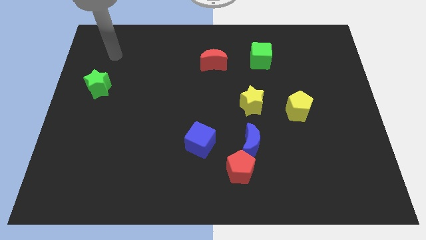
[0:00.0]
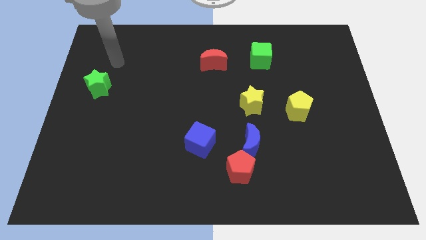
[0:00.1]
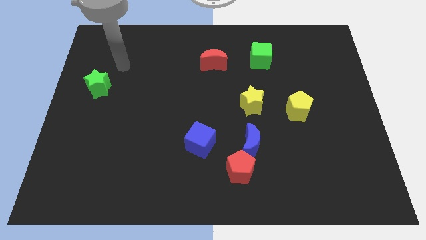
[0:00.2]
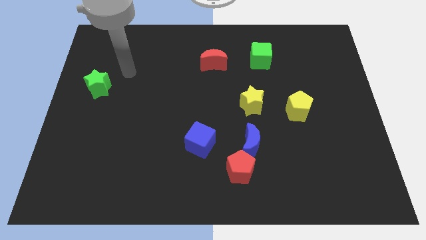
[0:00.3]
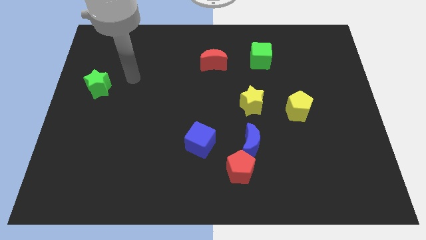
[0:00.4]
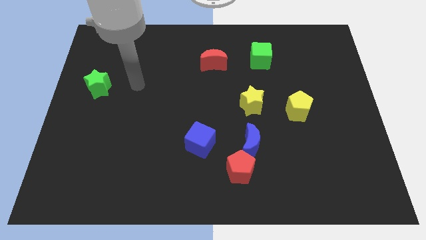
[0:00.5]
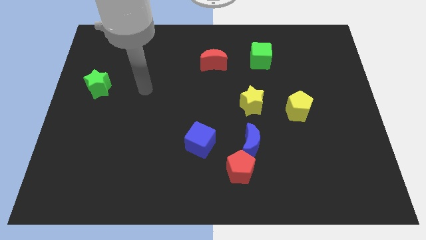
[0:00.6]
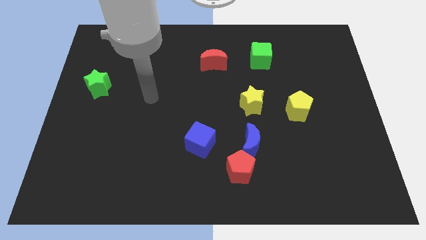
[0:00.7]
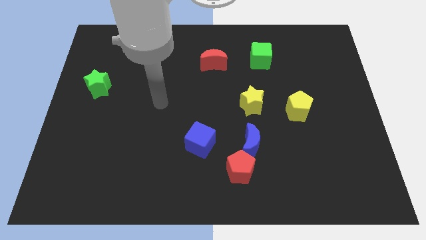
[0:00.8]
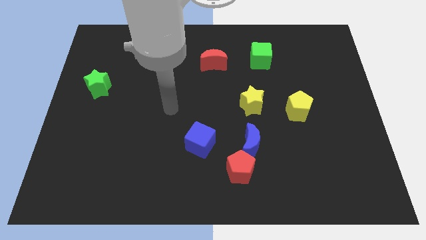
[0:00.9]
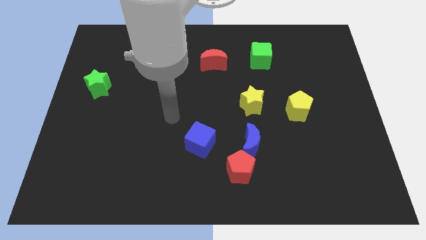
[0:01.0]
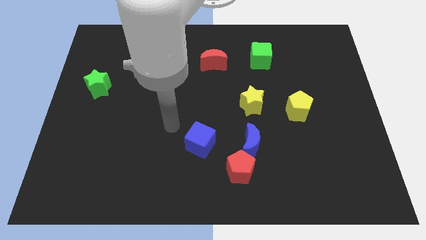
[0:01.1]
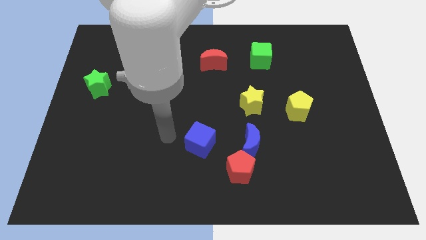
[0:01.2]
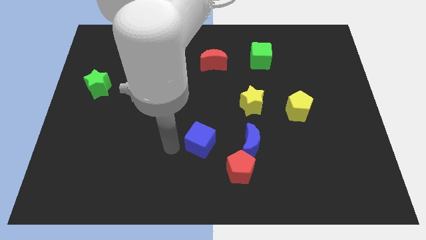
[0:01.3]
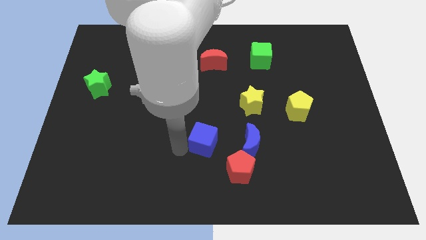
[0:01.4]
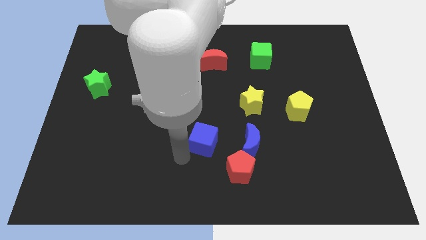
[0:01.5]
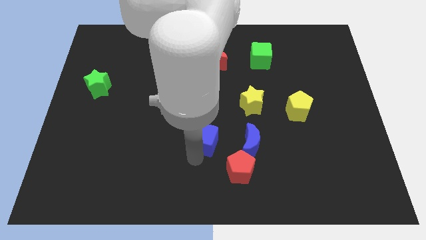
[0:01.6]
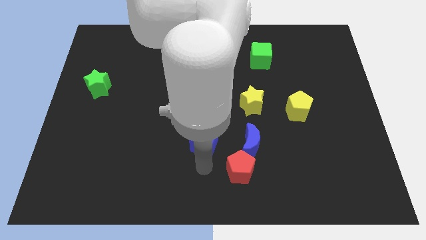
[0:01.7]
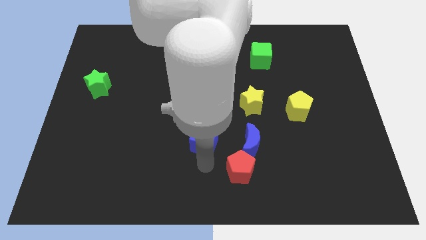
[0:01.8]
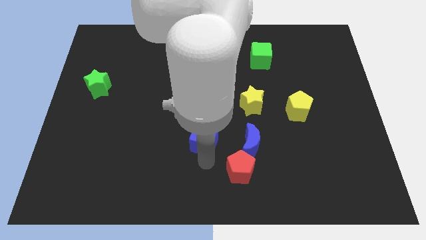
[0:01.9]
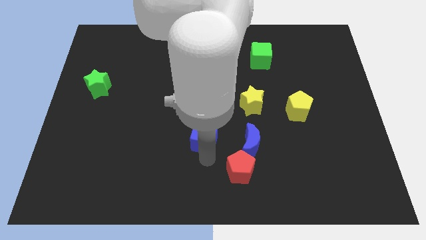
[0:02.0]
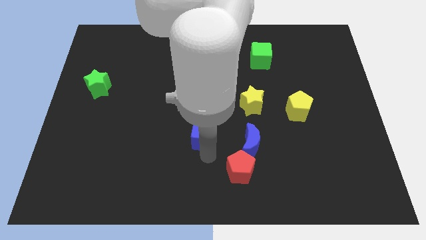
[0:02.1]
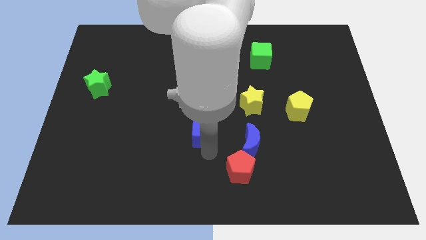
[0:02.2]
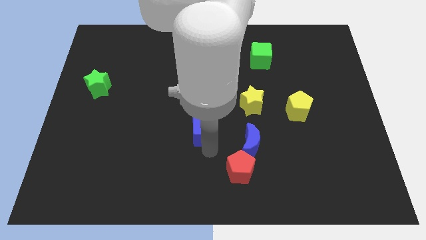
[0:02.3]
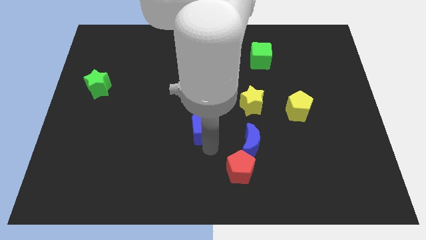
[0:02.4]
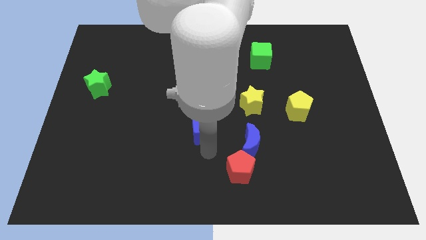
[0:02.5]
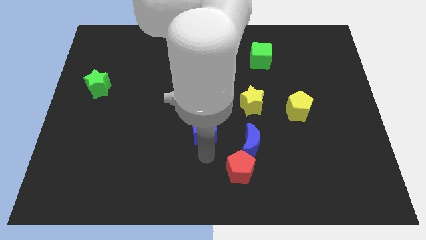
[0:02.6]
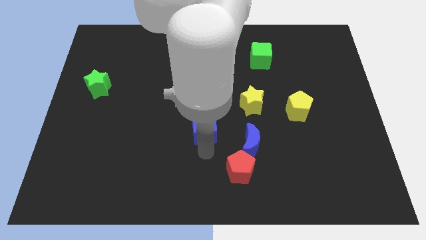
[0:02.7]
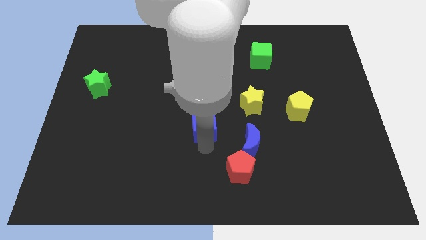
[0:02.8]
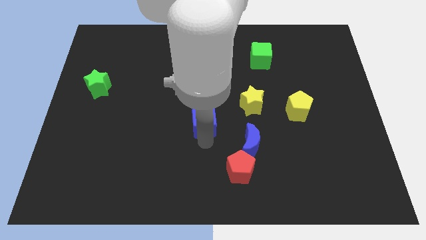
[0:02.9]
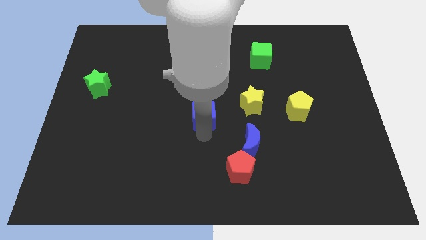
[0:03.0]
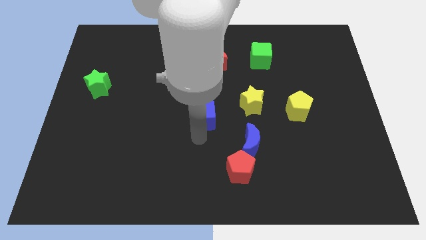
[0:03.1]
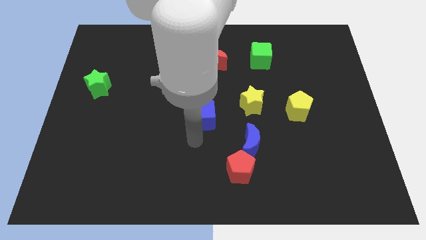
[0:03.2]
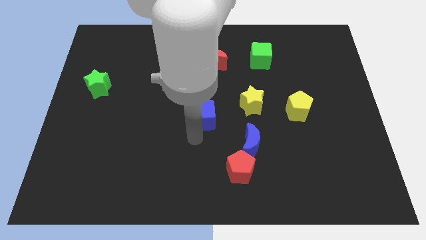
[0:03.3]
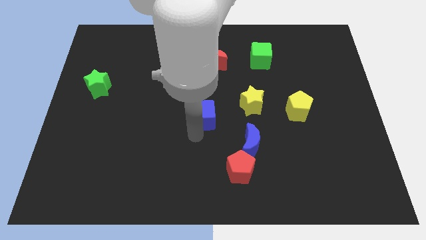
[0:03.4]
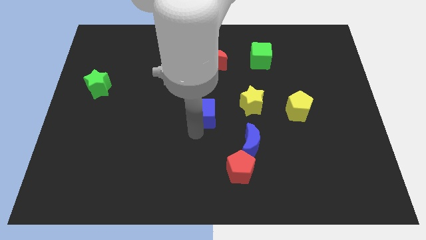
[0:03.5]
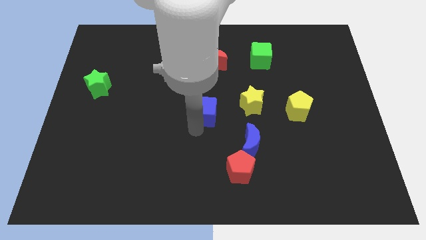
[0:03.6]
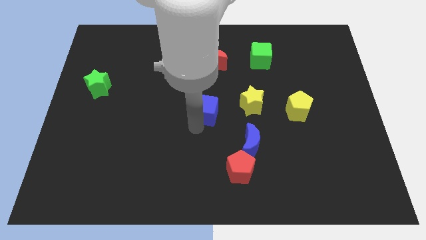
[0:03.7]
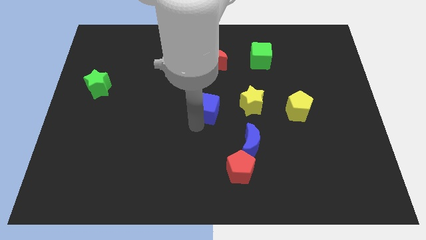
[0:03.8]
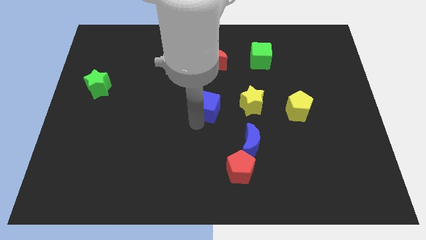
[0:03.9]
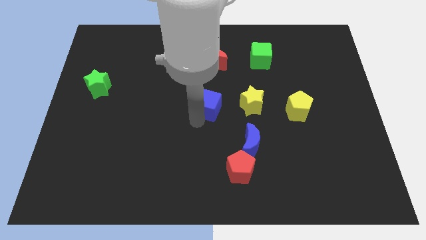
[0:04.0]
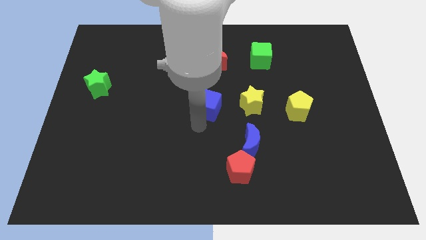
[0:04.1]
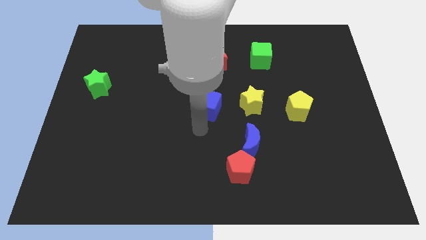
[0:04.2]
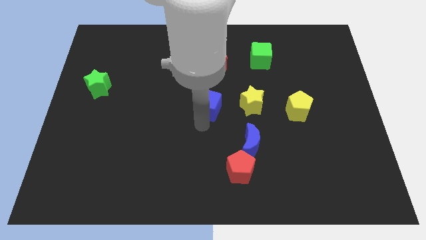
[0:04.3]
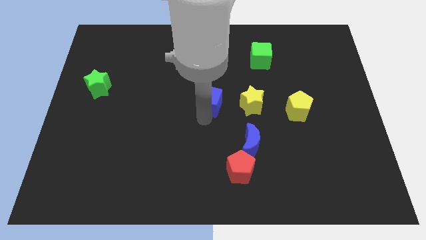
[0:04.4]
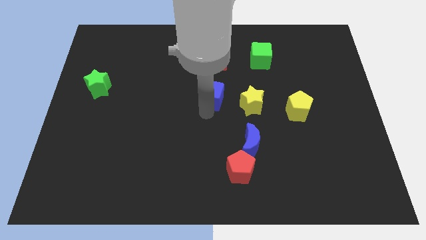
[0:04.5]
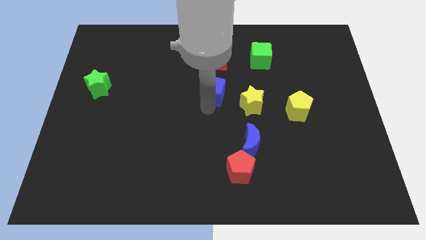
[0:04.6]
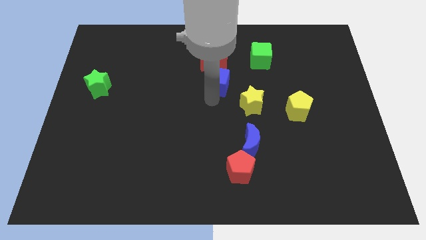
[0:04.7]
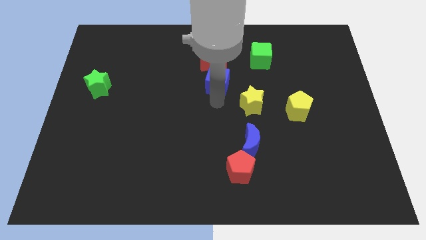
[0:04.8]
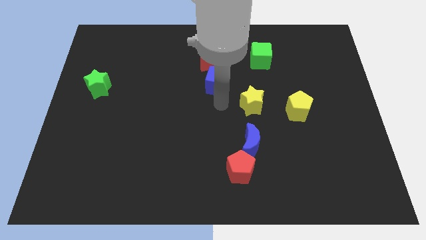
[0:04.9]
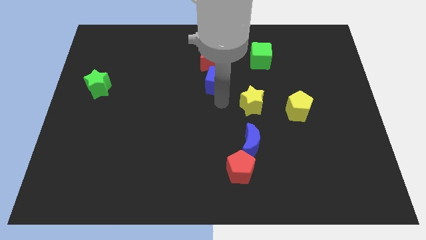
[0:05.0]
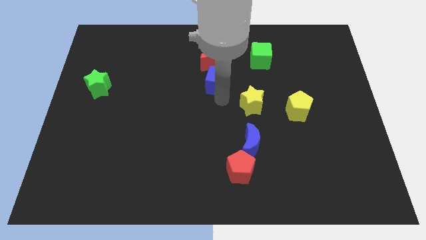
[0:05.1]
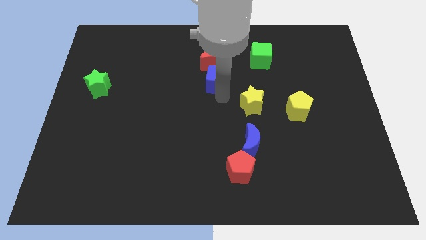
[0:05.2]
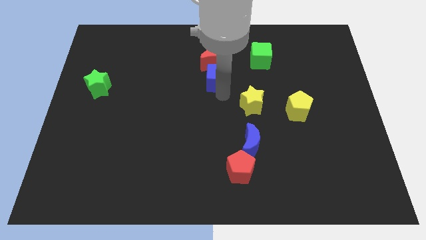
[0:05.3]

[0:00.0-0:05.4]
put the blue cube to the red moon
